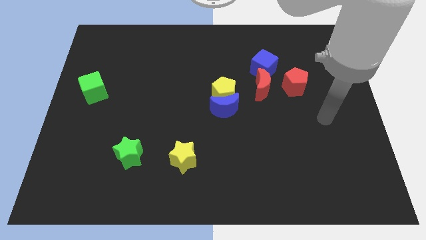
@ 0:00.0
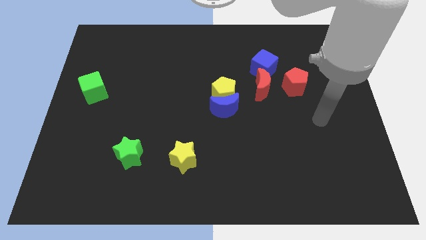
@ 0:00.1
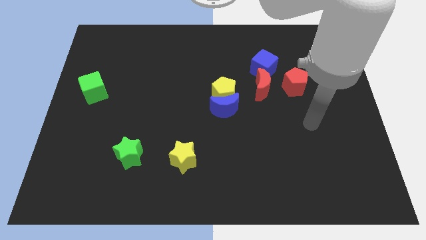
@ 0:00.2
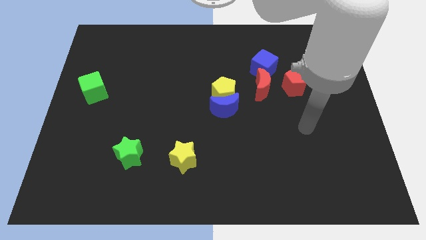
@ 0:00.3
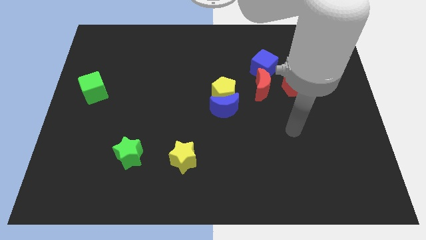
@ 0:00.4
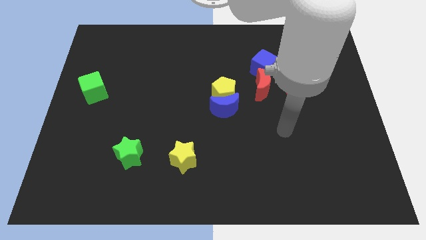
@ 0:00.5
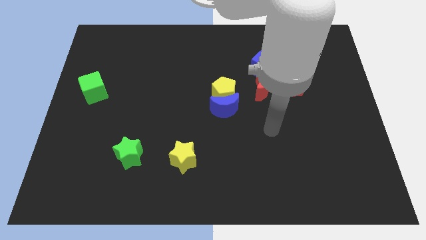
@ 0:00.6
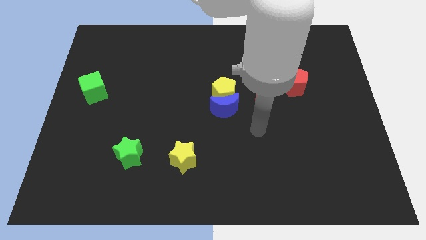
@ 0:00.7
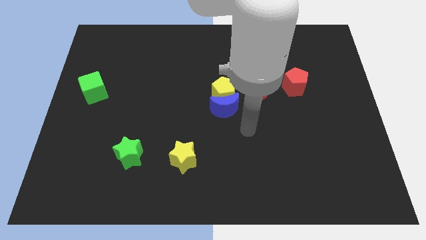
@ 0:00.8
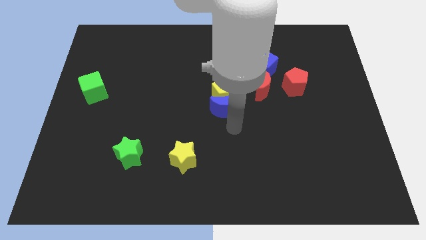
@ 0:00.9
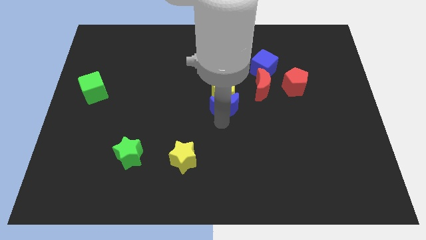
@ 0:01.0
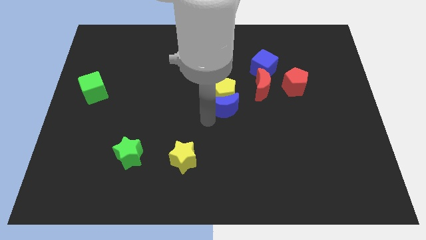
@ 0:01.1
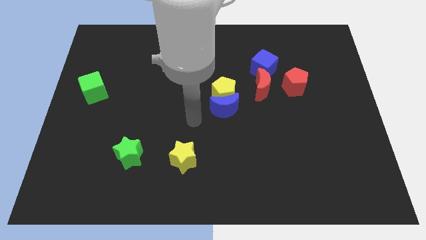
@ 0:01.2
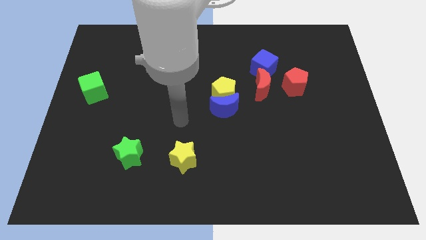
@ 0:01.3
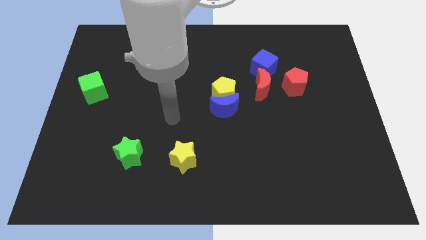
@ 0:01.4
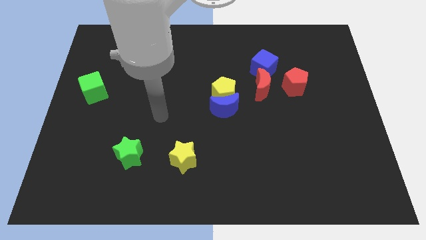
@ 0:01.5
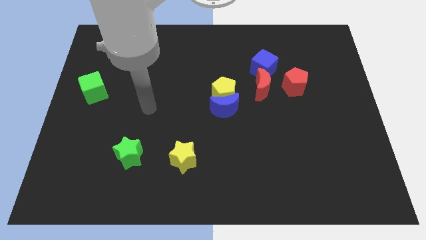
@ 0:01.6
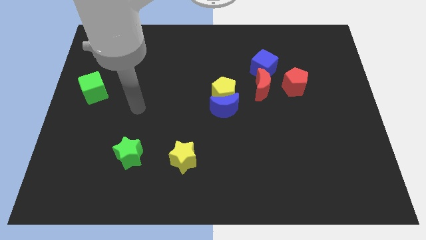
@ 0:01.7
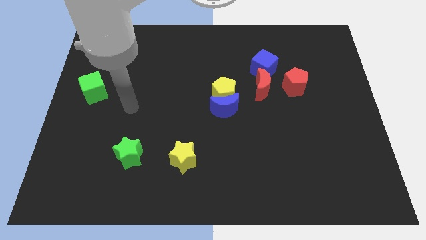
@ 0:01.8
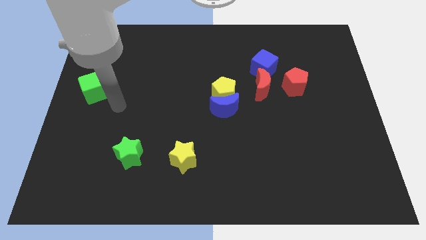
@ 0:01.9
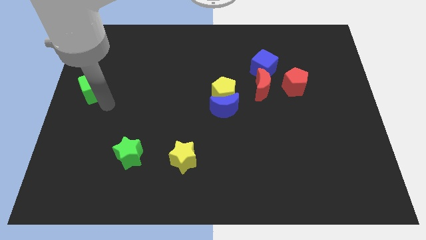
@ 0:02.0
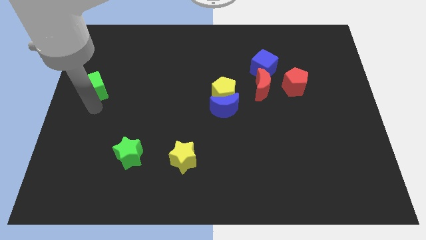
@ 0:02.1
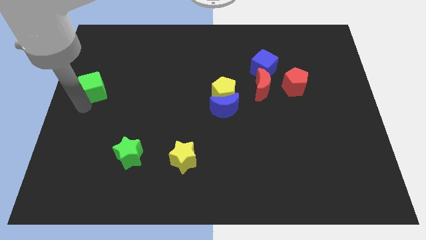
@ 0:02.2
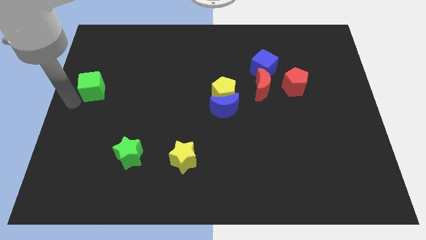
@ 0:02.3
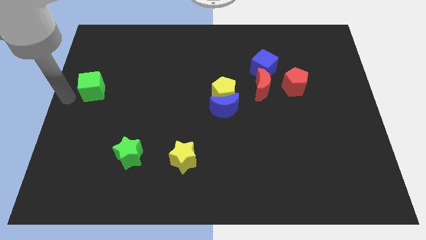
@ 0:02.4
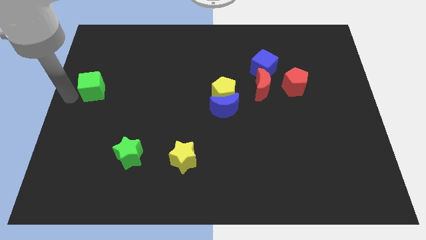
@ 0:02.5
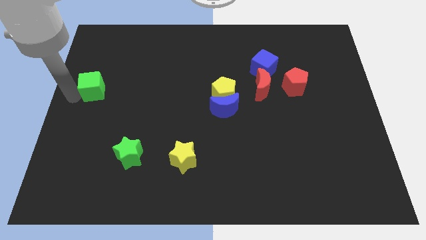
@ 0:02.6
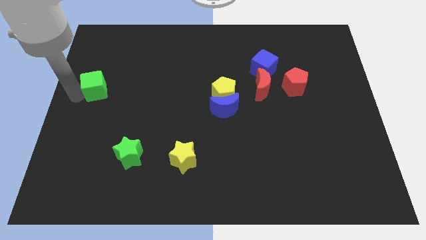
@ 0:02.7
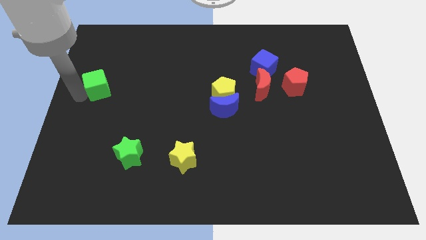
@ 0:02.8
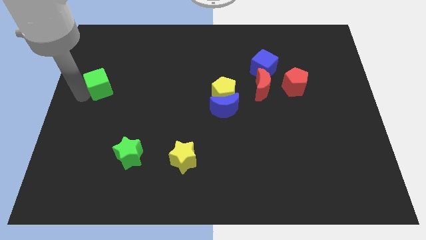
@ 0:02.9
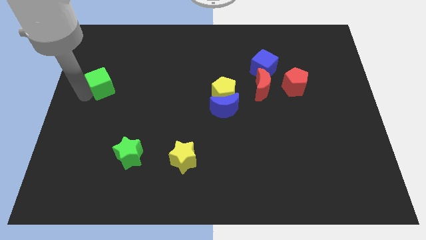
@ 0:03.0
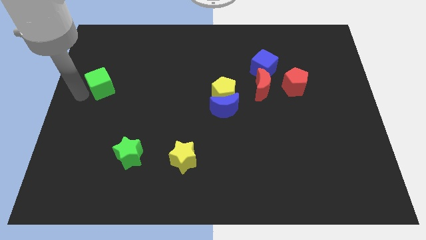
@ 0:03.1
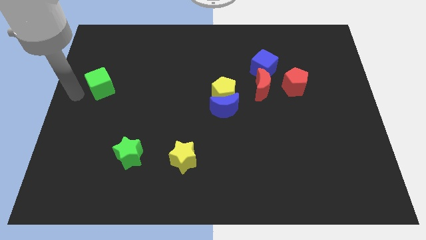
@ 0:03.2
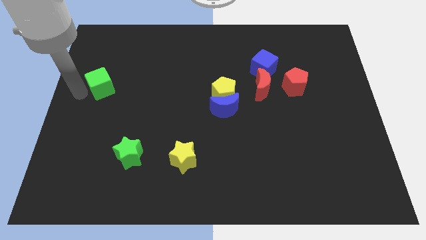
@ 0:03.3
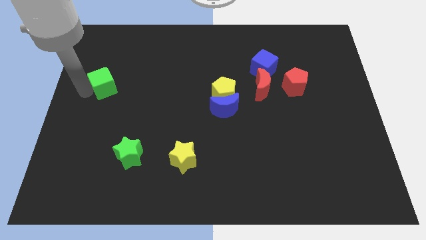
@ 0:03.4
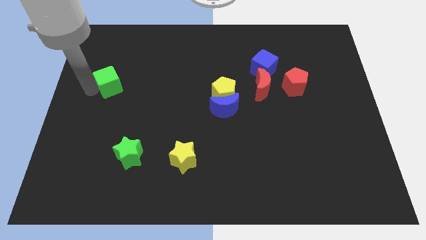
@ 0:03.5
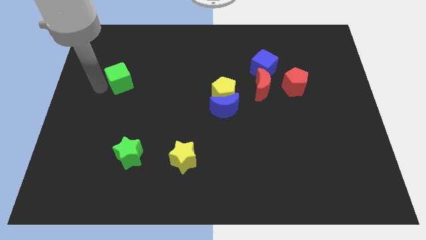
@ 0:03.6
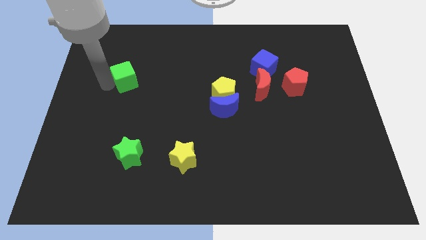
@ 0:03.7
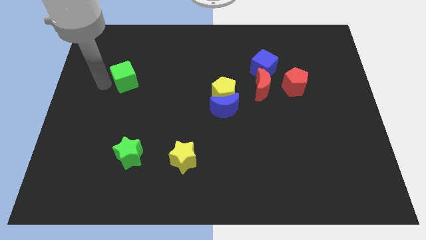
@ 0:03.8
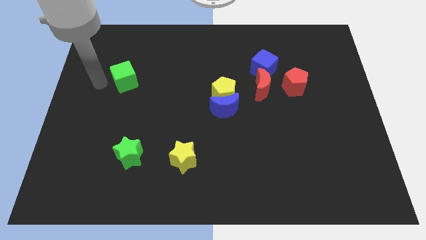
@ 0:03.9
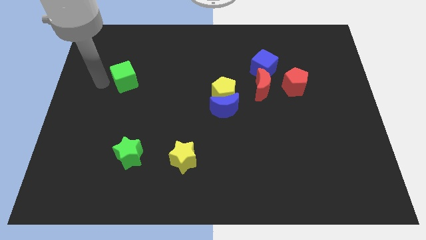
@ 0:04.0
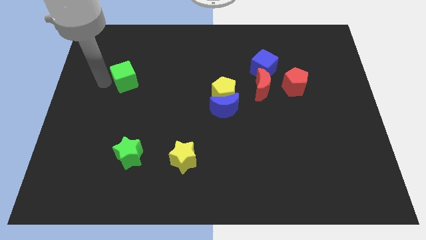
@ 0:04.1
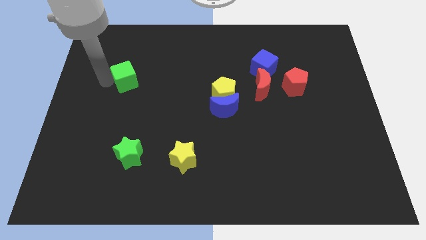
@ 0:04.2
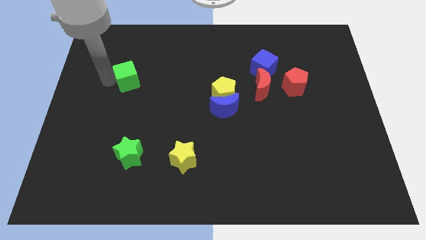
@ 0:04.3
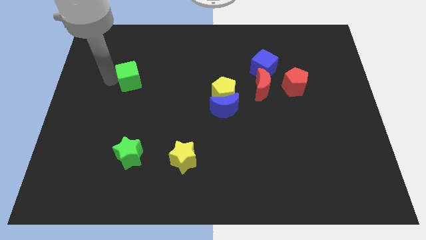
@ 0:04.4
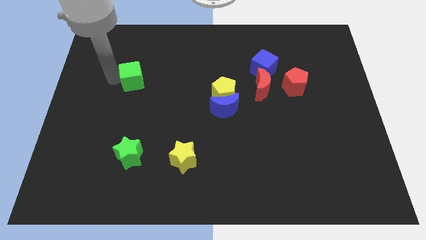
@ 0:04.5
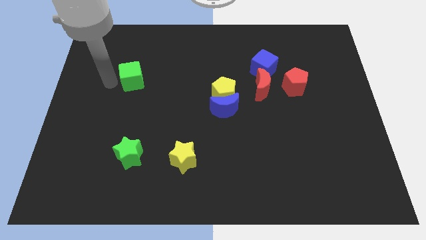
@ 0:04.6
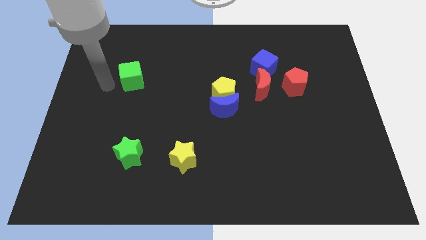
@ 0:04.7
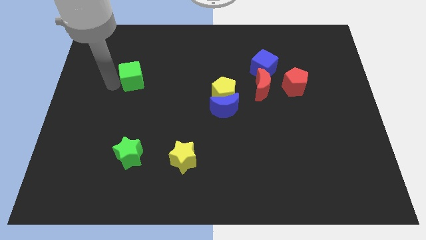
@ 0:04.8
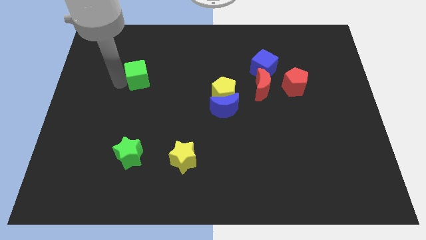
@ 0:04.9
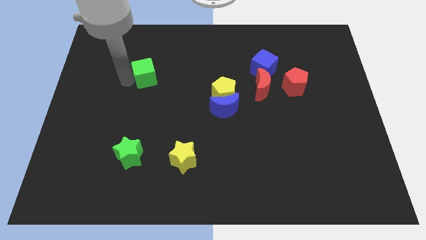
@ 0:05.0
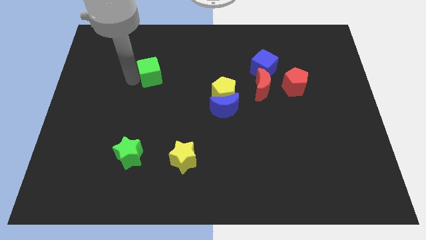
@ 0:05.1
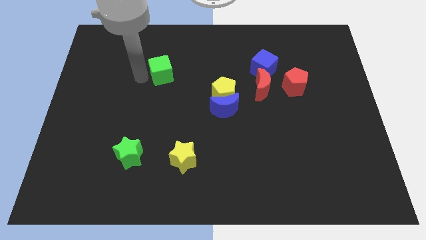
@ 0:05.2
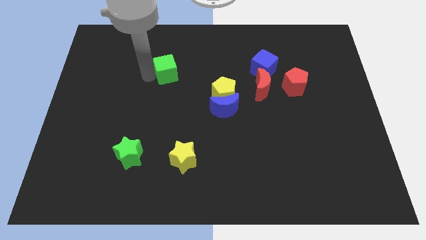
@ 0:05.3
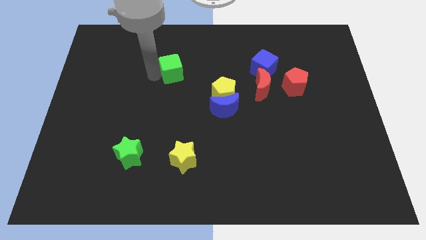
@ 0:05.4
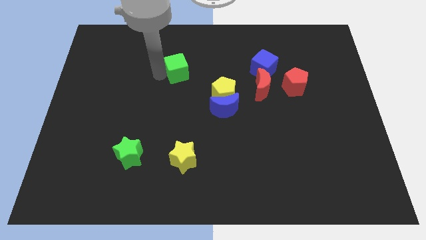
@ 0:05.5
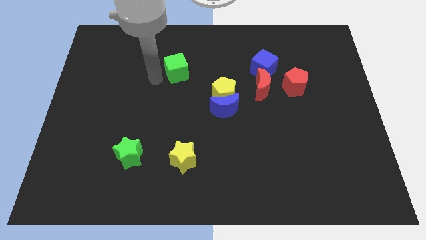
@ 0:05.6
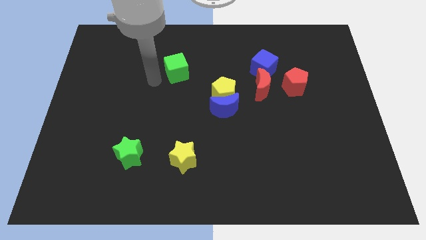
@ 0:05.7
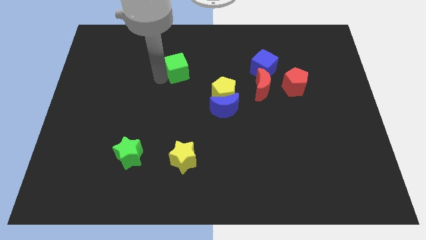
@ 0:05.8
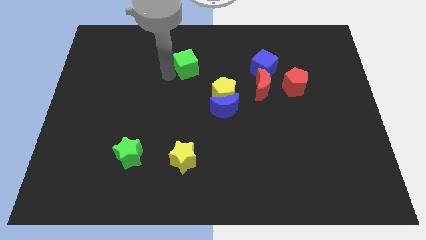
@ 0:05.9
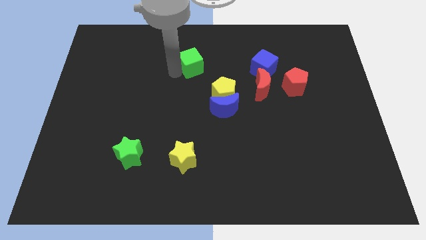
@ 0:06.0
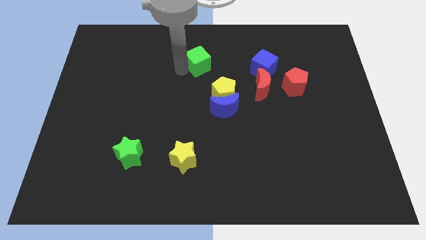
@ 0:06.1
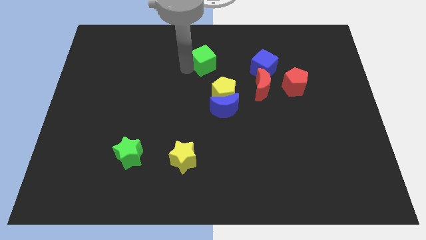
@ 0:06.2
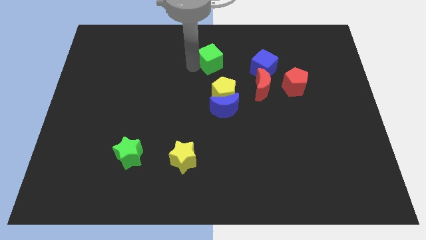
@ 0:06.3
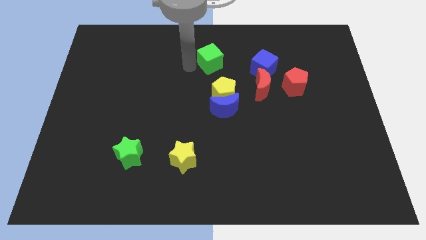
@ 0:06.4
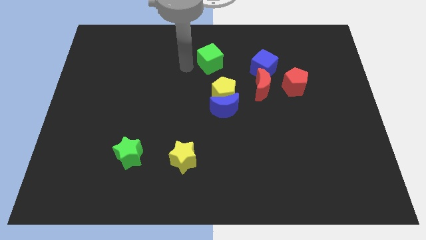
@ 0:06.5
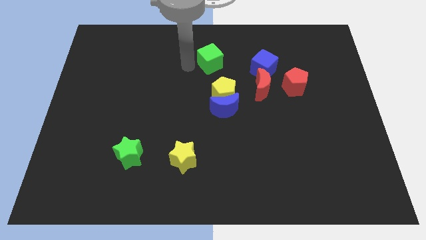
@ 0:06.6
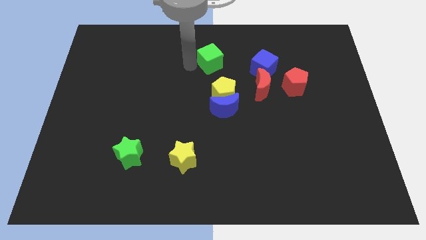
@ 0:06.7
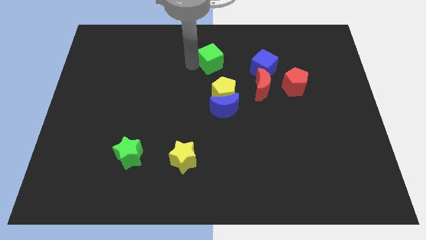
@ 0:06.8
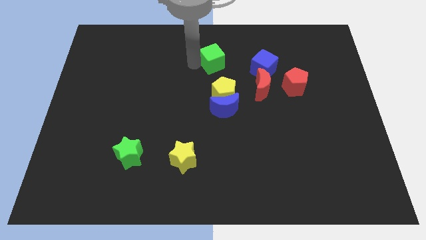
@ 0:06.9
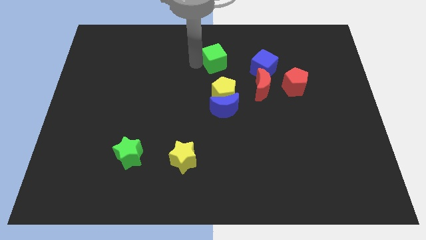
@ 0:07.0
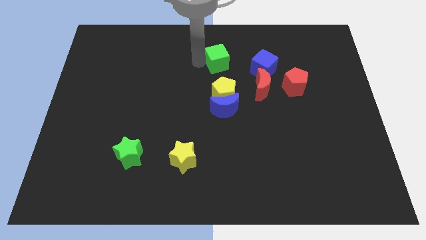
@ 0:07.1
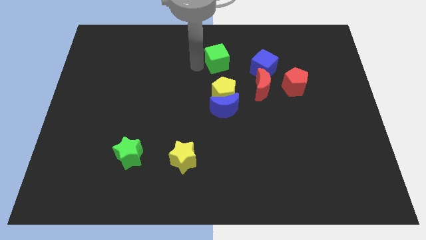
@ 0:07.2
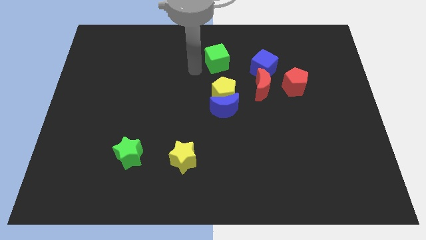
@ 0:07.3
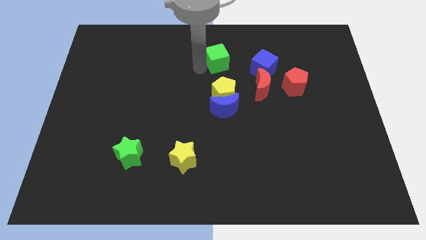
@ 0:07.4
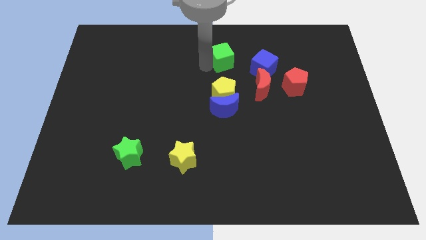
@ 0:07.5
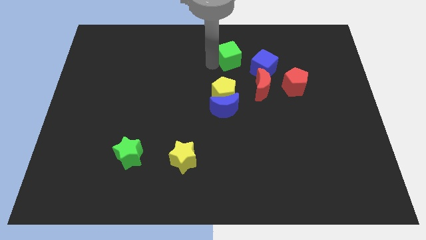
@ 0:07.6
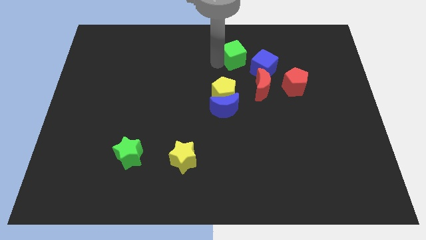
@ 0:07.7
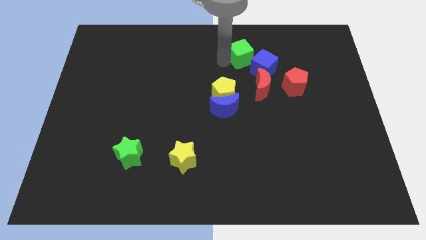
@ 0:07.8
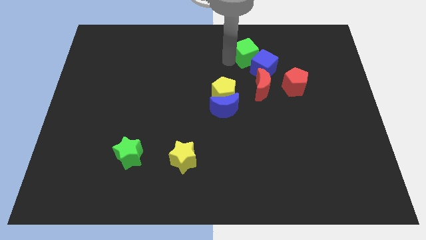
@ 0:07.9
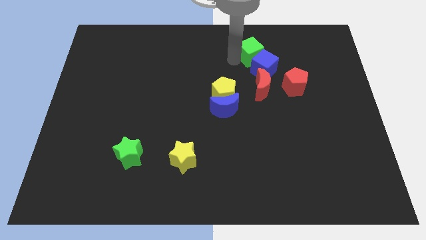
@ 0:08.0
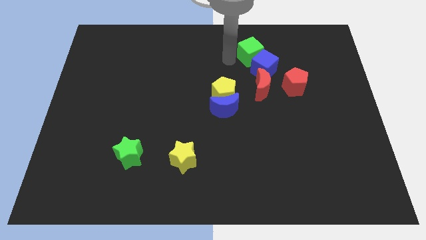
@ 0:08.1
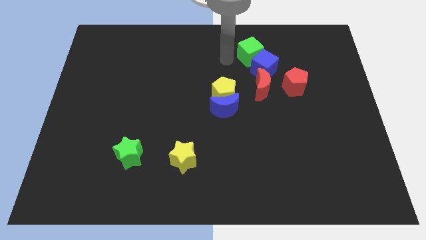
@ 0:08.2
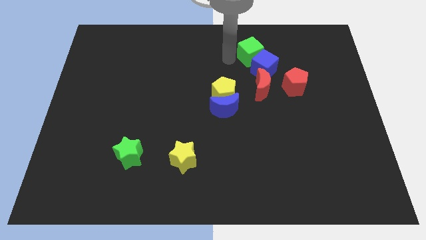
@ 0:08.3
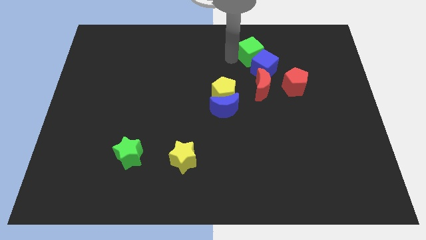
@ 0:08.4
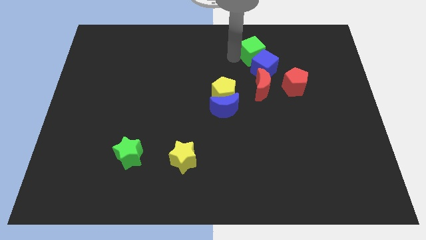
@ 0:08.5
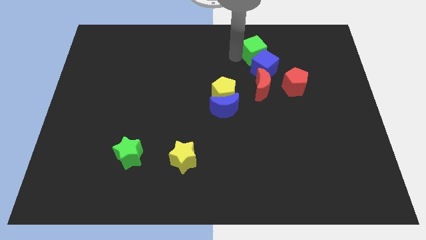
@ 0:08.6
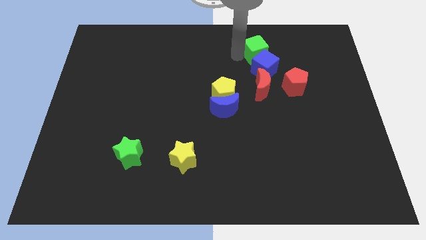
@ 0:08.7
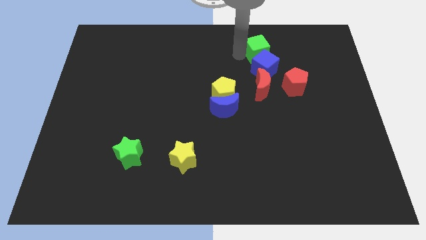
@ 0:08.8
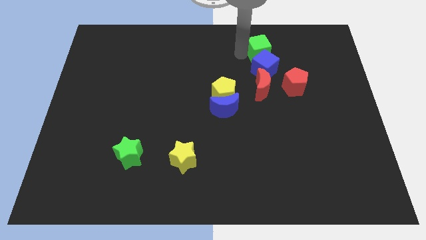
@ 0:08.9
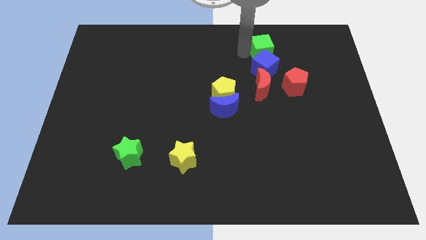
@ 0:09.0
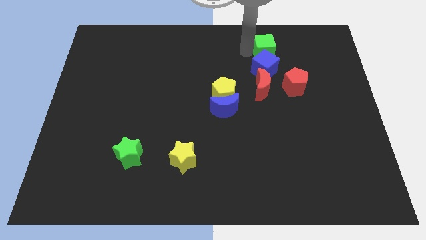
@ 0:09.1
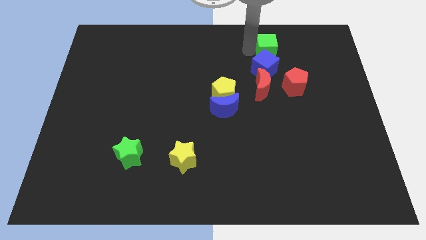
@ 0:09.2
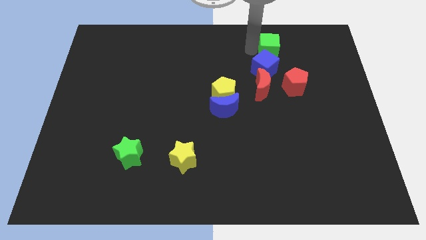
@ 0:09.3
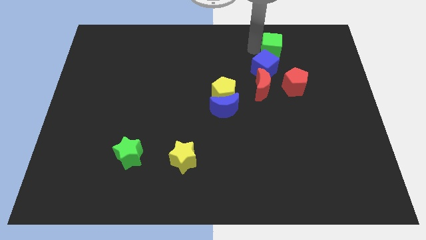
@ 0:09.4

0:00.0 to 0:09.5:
slide the green cube to the top of the red pentagon
